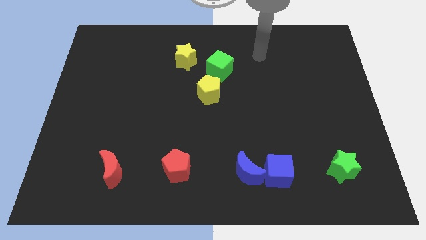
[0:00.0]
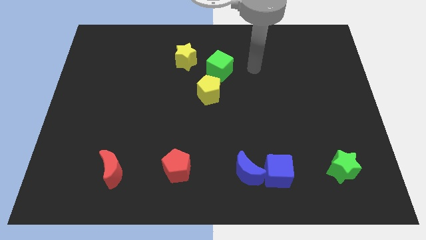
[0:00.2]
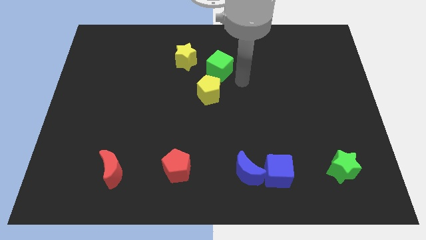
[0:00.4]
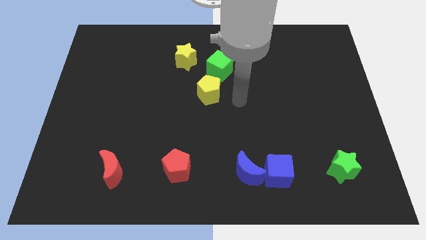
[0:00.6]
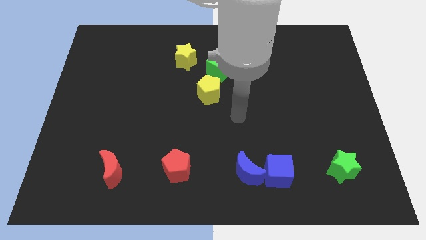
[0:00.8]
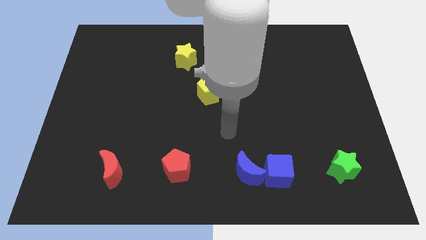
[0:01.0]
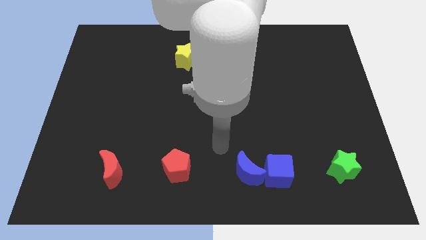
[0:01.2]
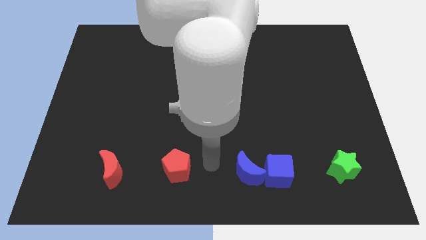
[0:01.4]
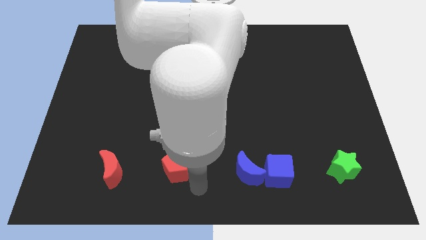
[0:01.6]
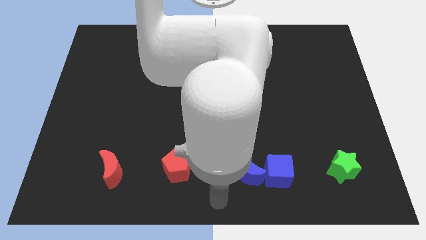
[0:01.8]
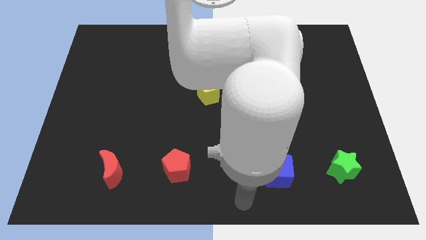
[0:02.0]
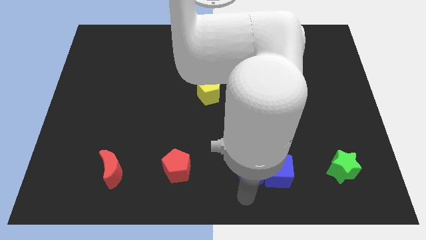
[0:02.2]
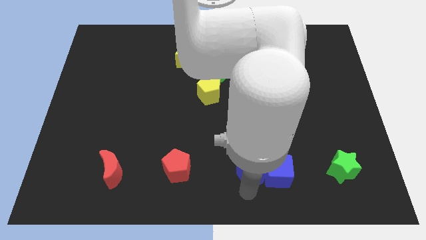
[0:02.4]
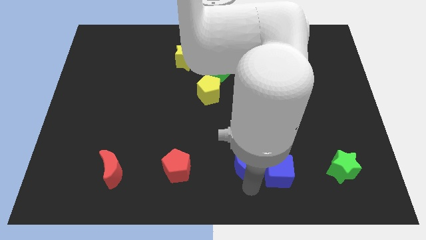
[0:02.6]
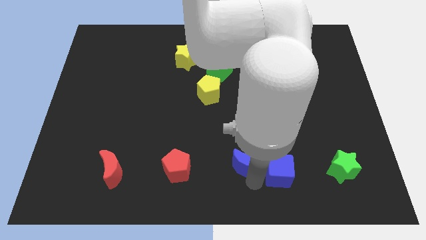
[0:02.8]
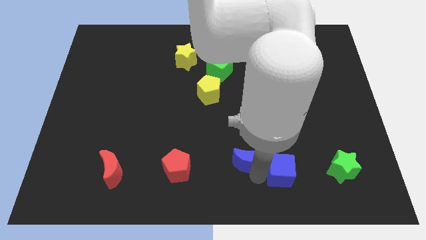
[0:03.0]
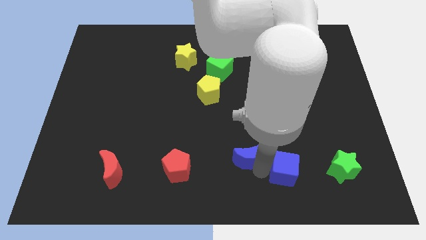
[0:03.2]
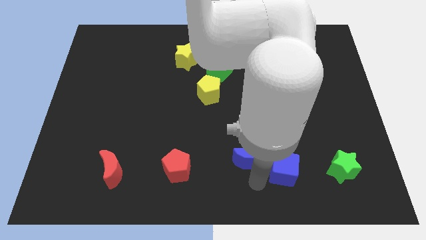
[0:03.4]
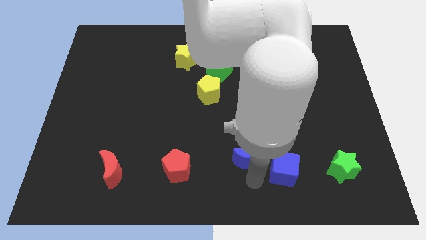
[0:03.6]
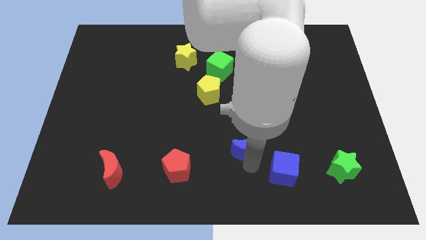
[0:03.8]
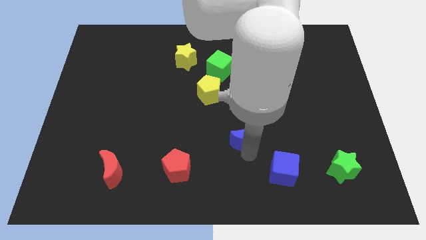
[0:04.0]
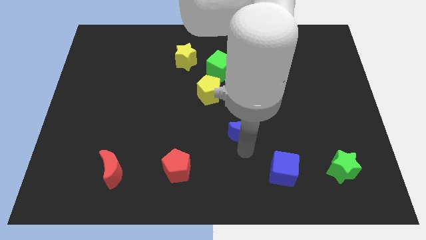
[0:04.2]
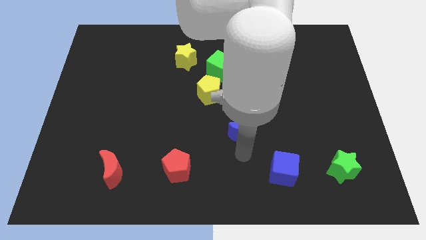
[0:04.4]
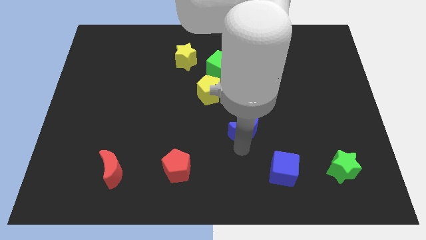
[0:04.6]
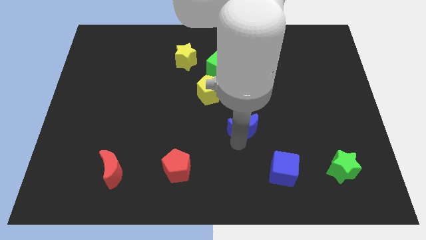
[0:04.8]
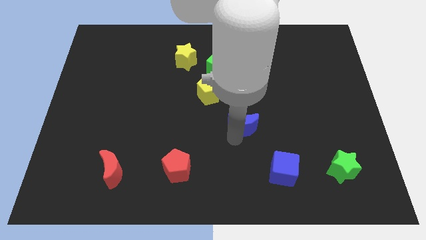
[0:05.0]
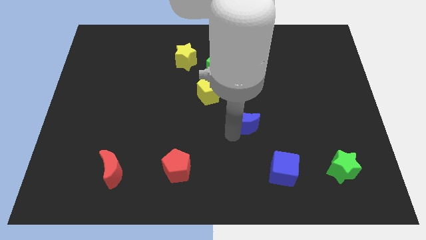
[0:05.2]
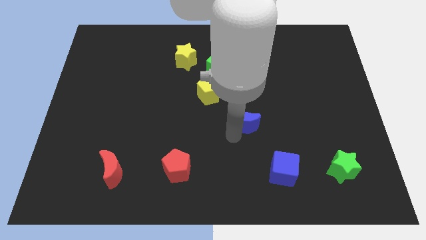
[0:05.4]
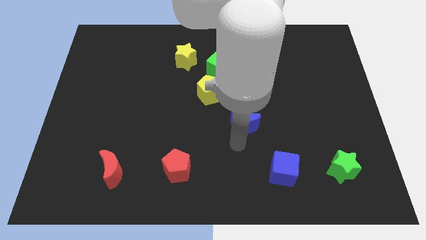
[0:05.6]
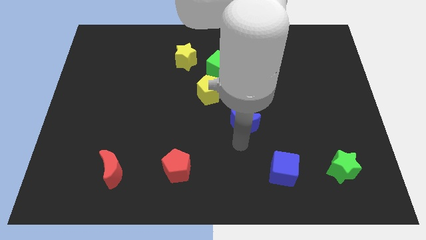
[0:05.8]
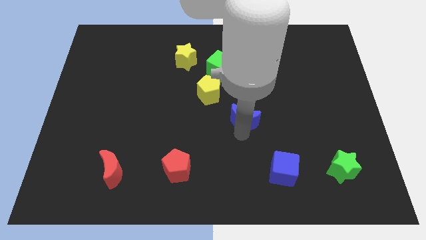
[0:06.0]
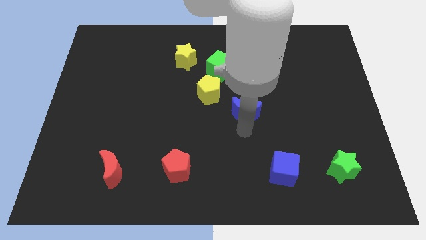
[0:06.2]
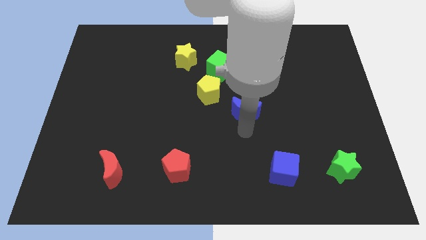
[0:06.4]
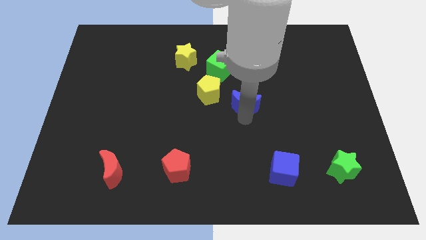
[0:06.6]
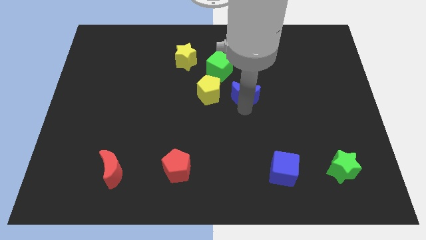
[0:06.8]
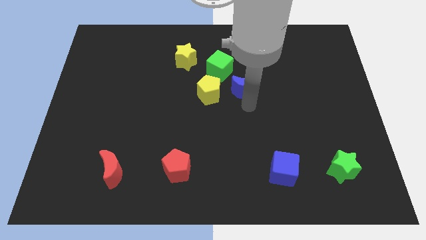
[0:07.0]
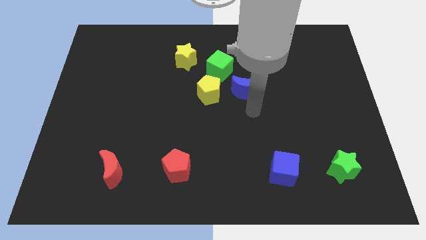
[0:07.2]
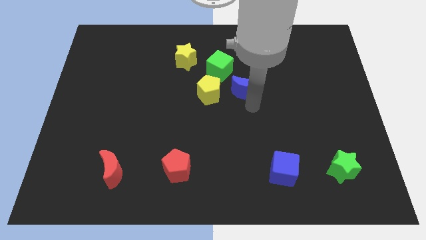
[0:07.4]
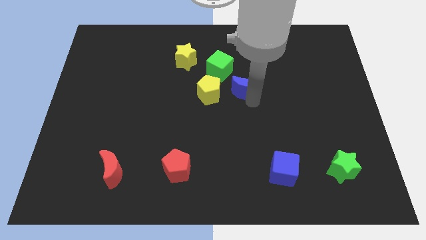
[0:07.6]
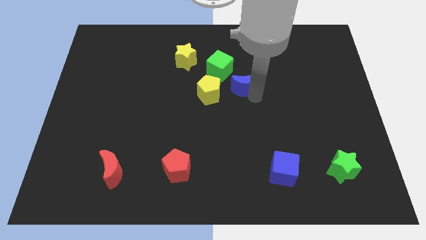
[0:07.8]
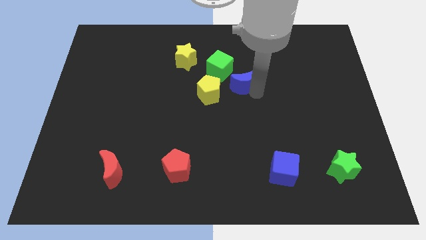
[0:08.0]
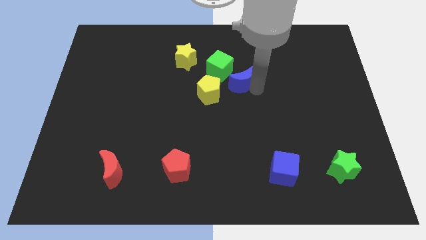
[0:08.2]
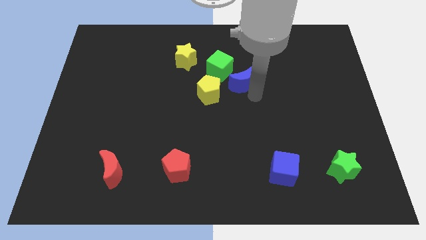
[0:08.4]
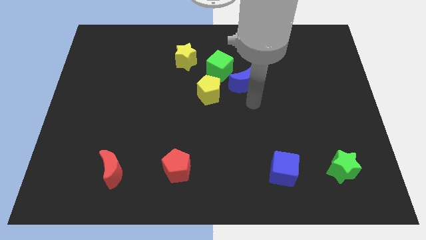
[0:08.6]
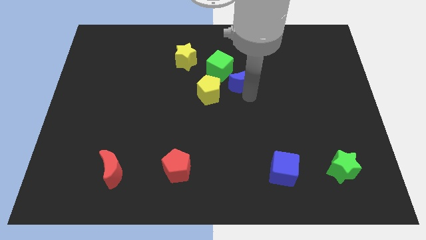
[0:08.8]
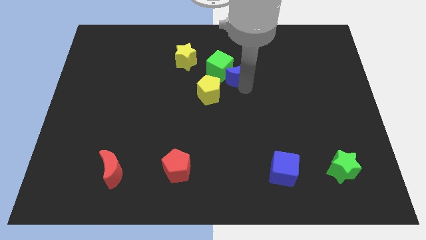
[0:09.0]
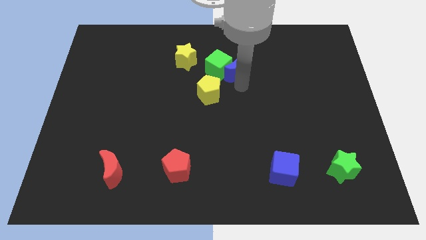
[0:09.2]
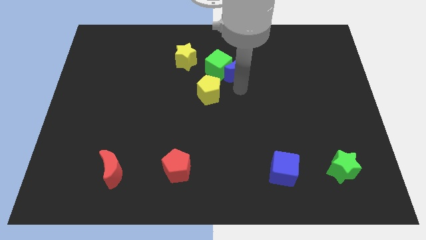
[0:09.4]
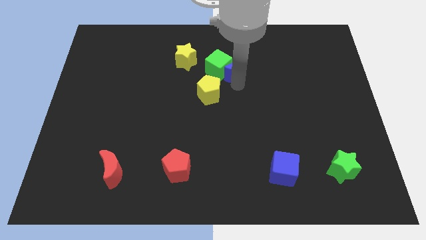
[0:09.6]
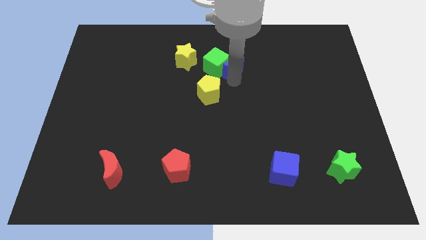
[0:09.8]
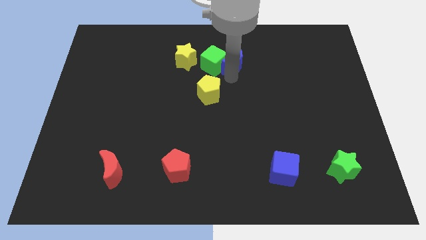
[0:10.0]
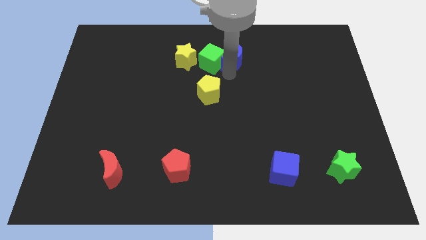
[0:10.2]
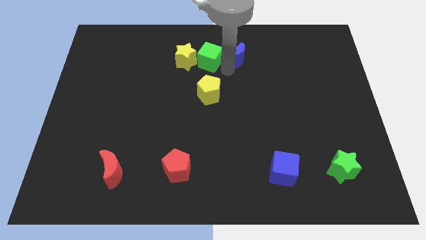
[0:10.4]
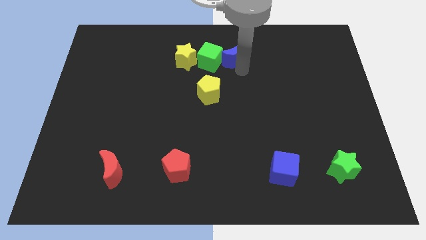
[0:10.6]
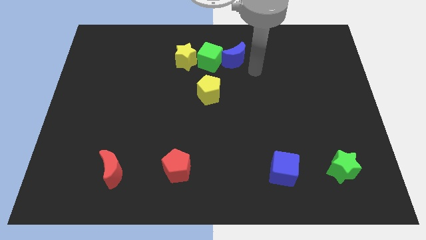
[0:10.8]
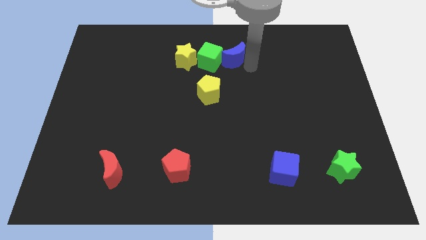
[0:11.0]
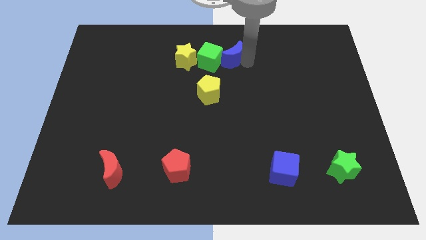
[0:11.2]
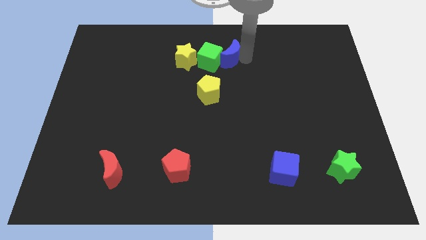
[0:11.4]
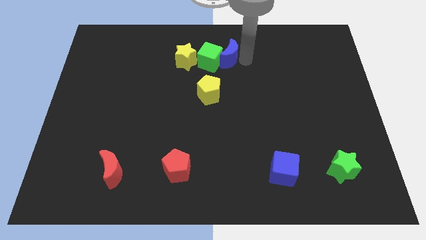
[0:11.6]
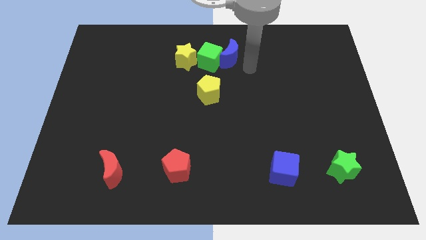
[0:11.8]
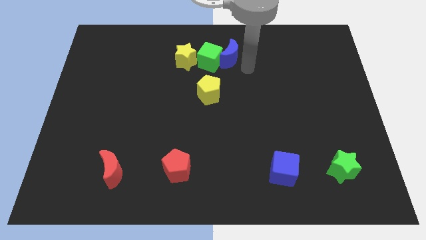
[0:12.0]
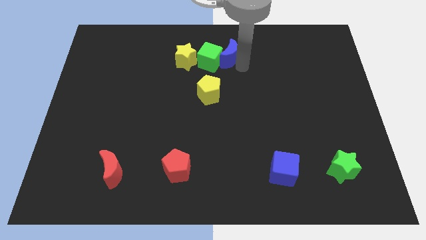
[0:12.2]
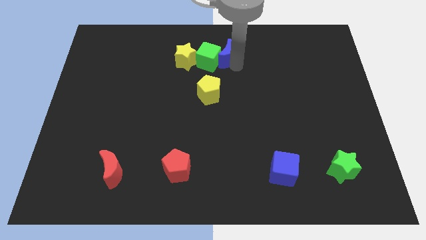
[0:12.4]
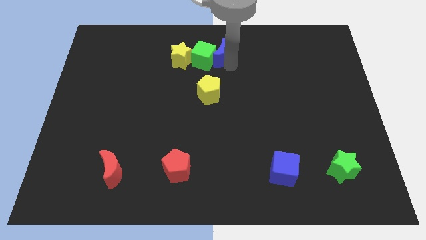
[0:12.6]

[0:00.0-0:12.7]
slide the blue moon to the towards your base
